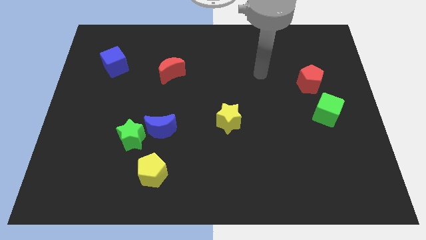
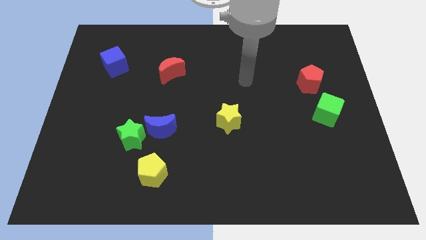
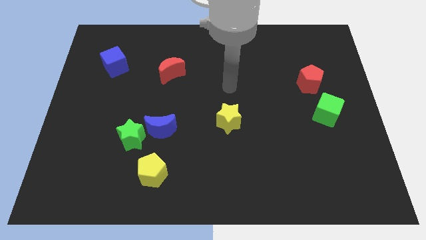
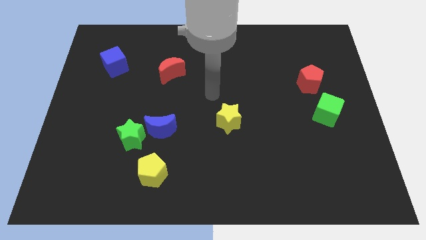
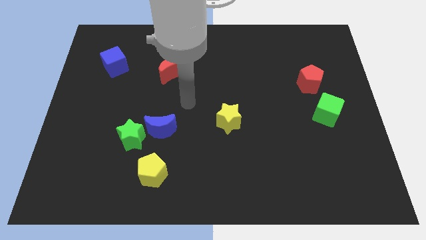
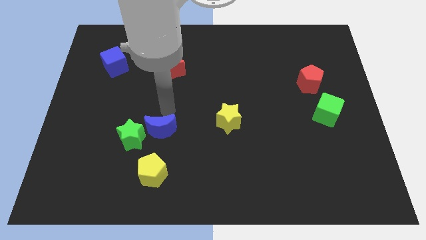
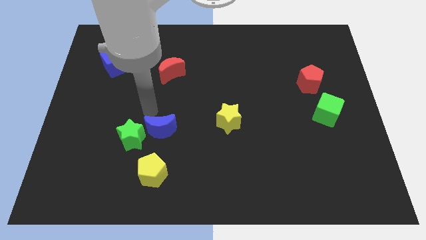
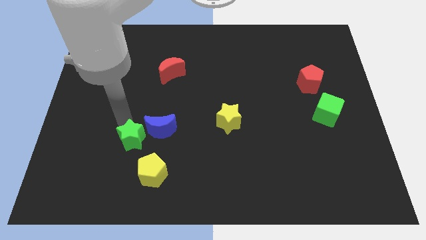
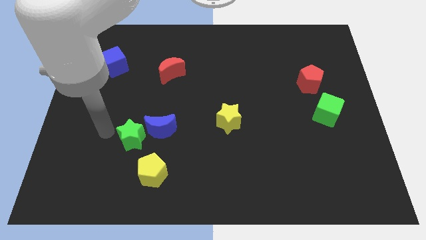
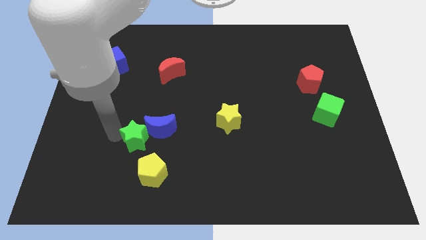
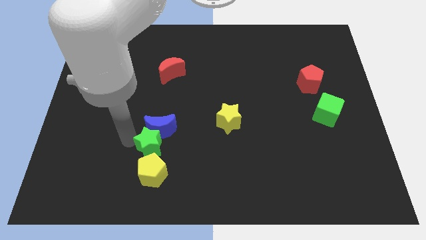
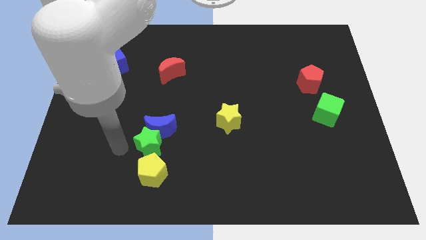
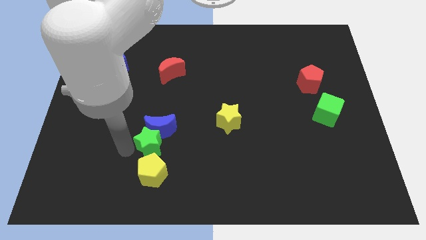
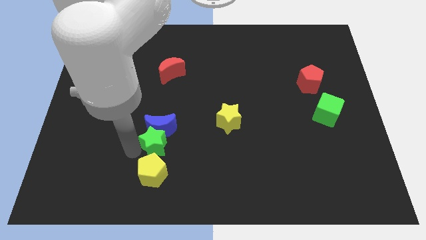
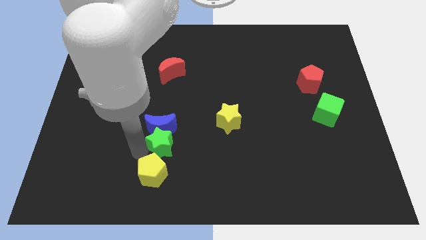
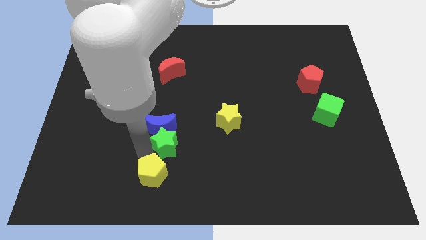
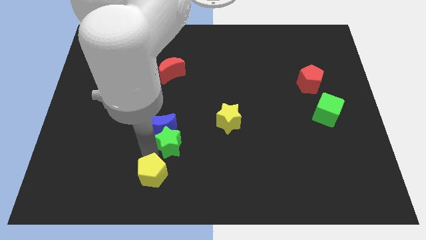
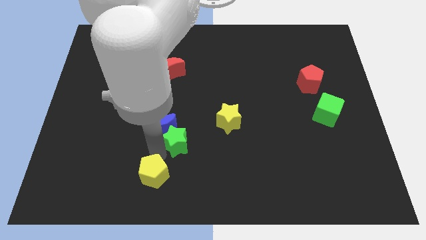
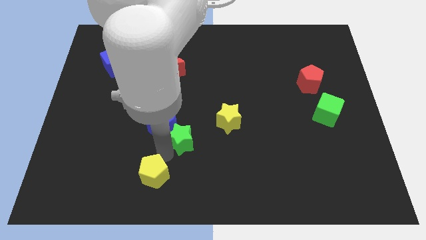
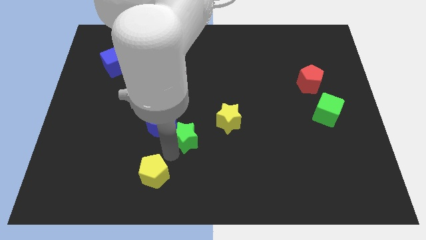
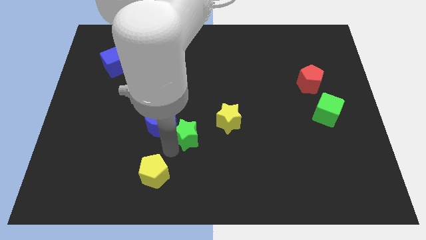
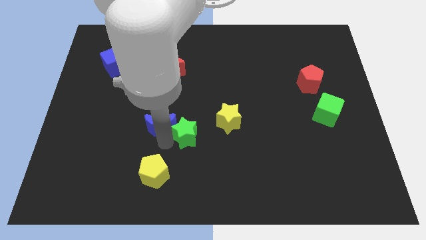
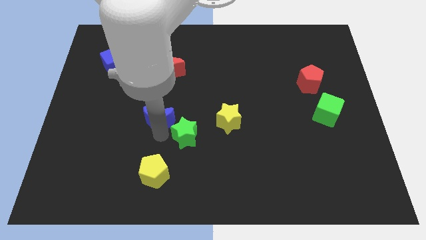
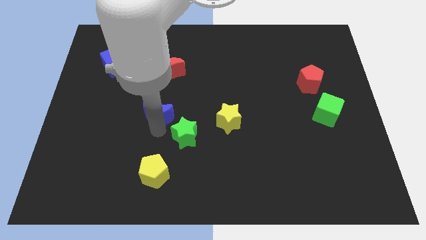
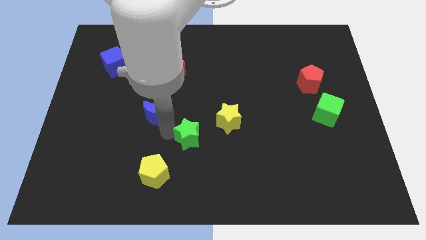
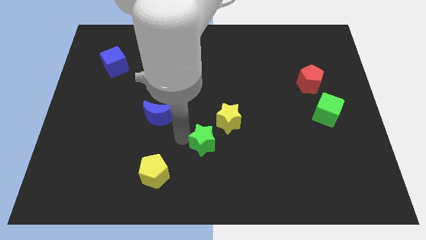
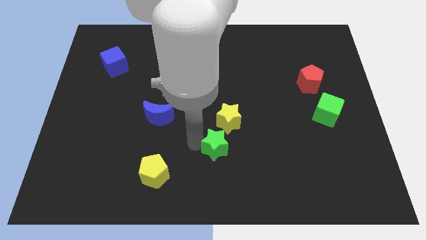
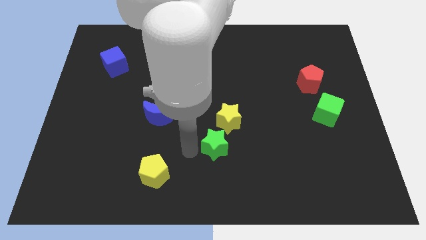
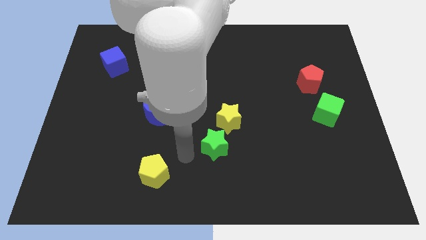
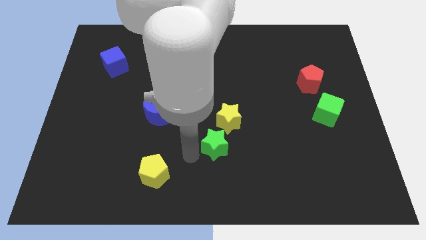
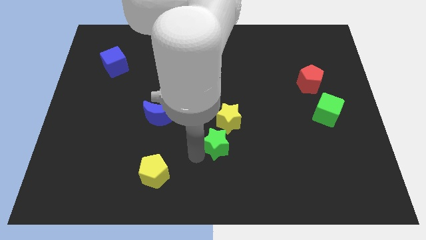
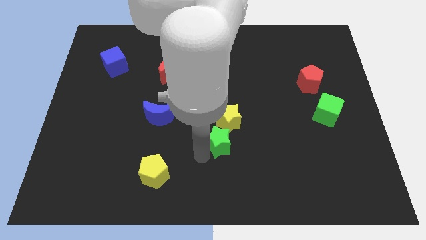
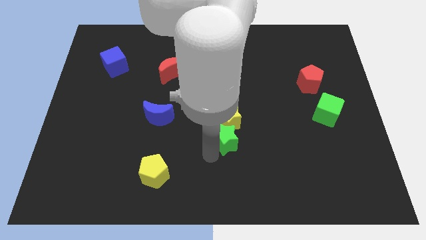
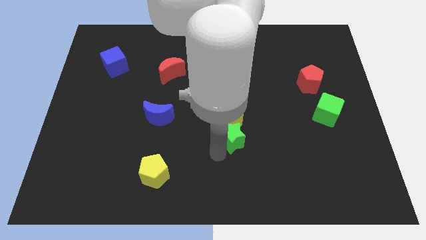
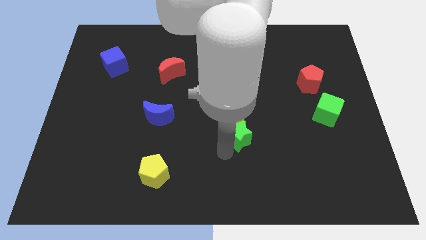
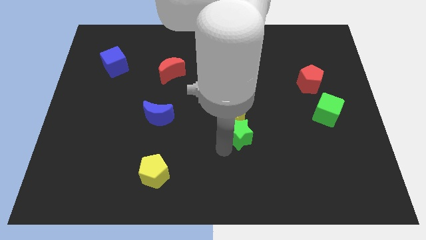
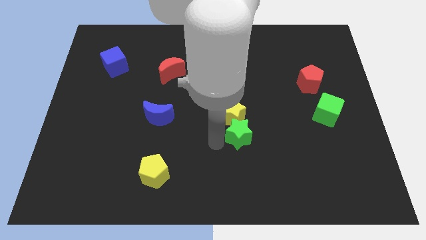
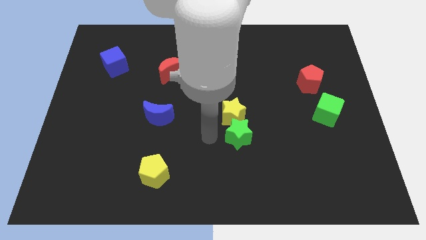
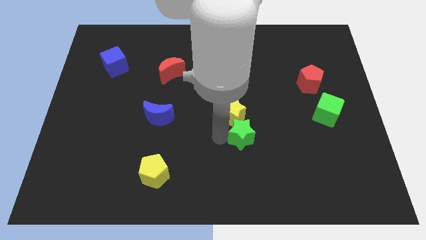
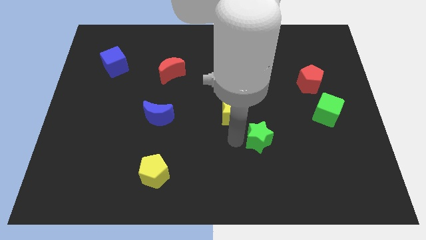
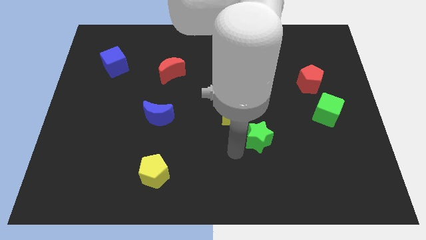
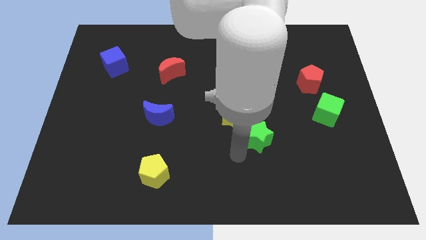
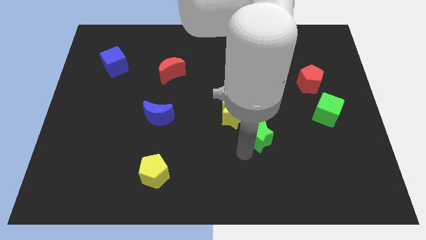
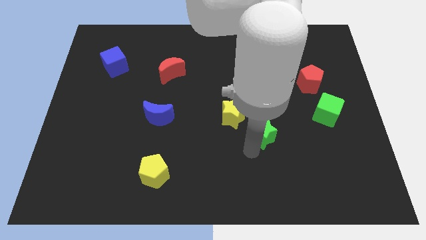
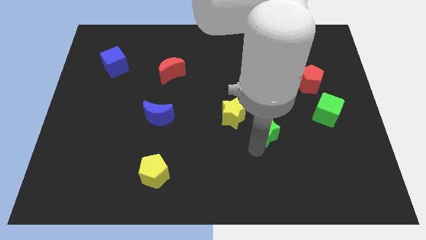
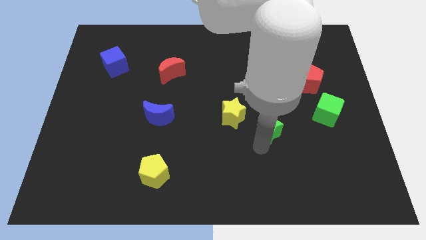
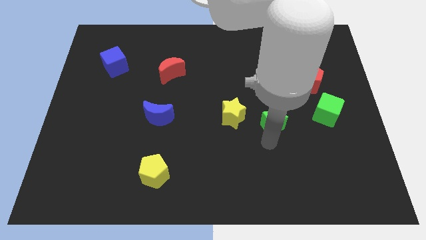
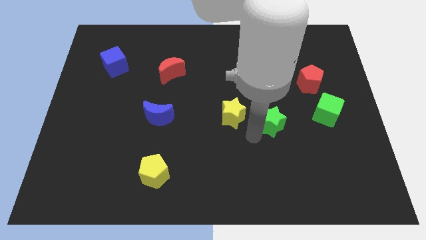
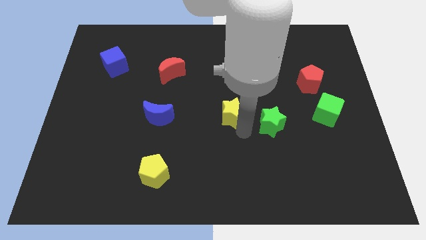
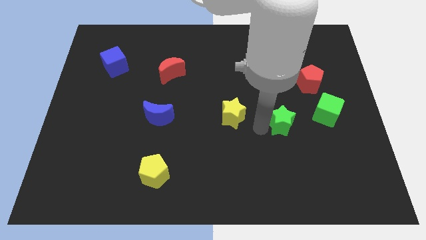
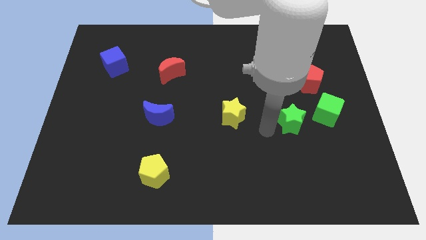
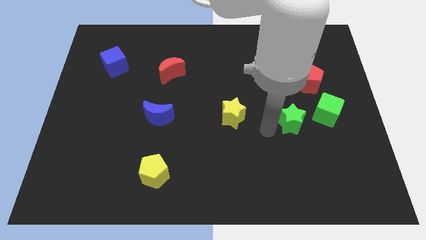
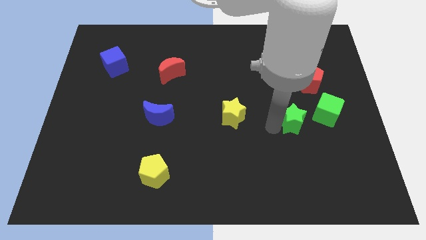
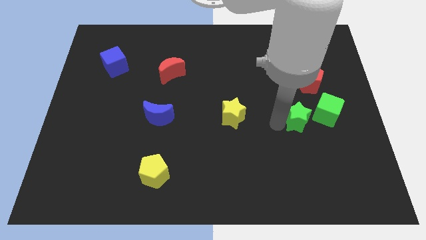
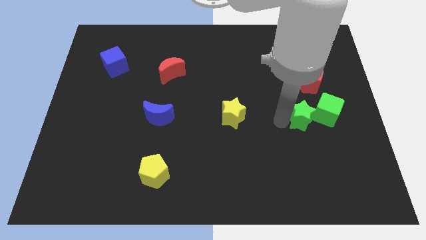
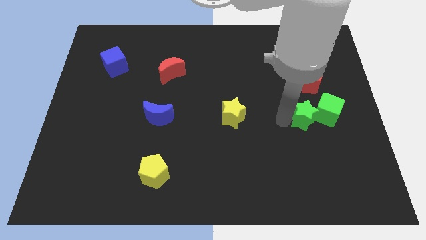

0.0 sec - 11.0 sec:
push the green star close to the green cube

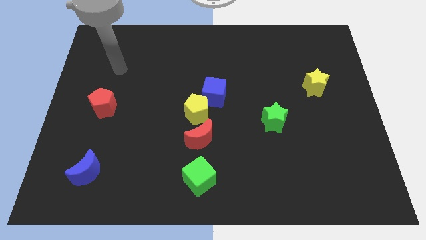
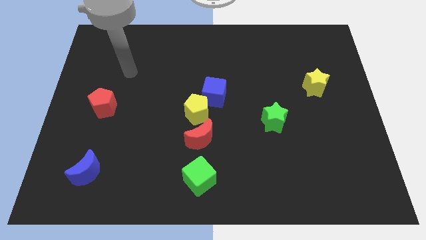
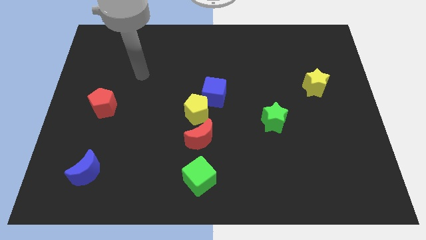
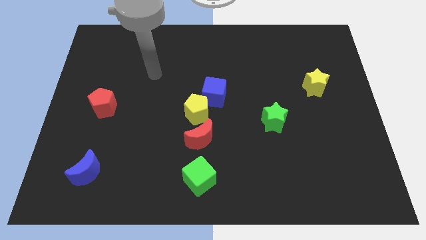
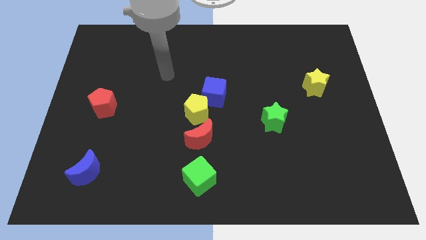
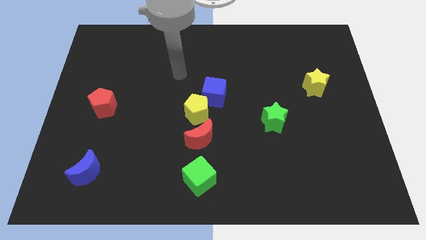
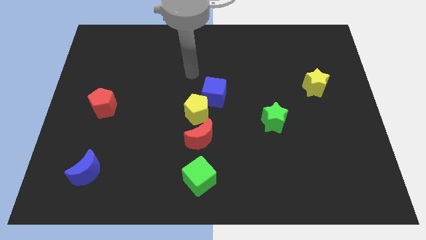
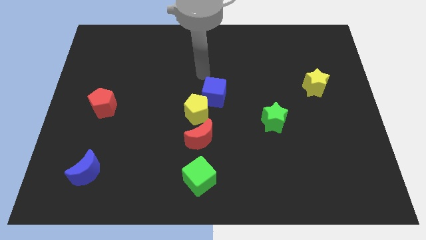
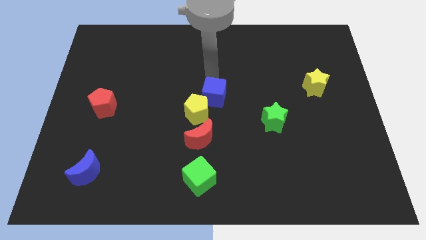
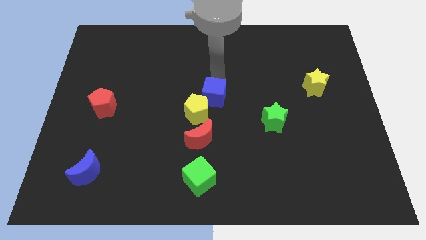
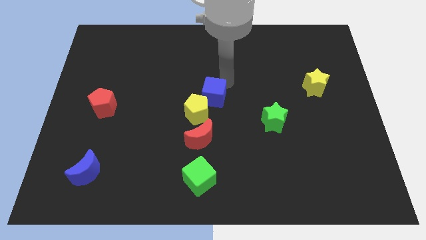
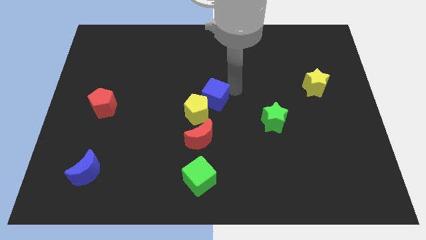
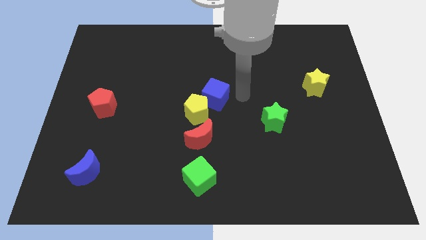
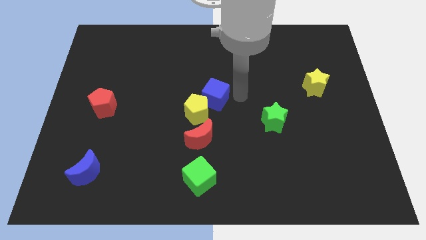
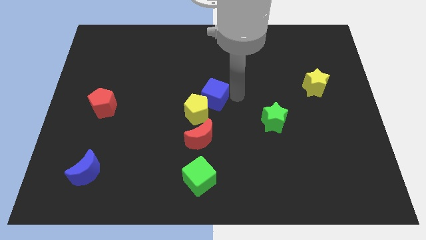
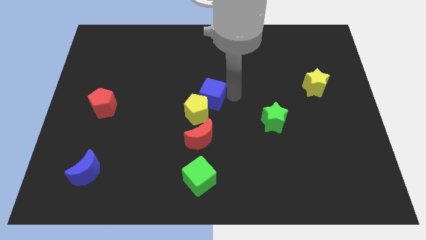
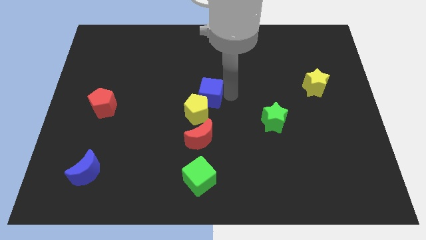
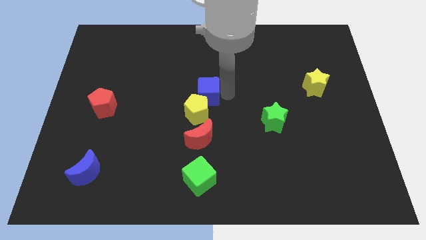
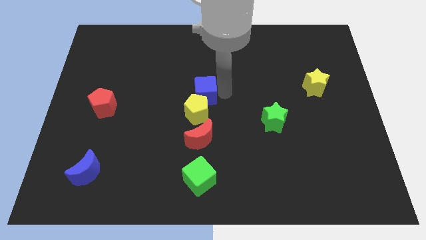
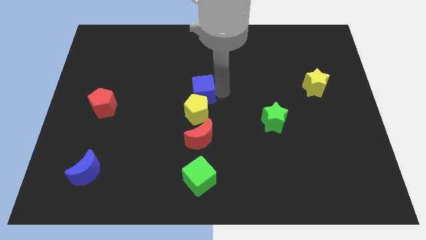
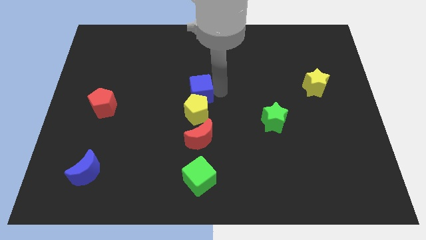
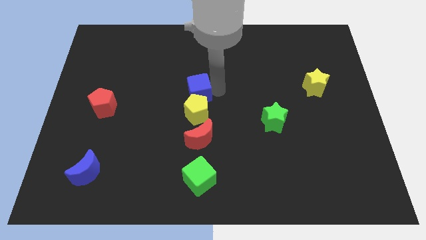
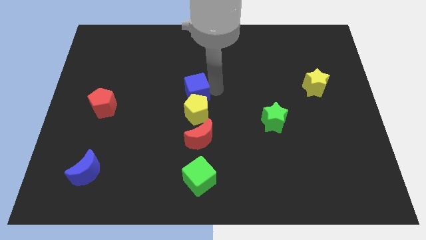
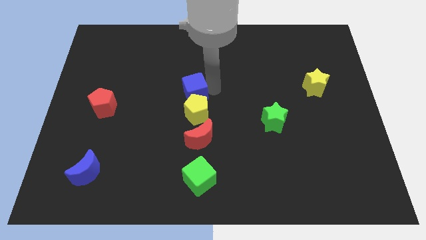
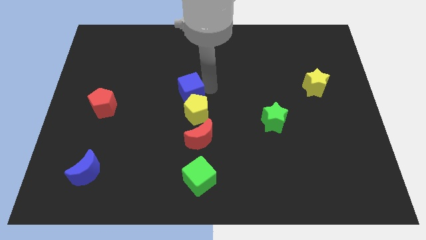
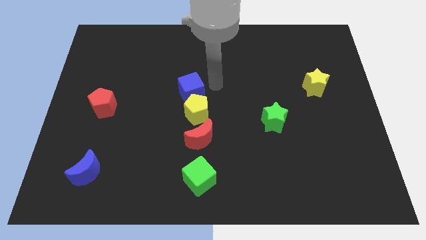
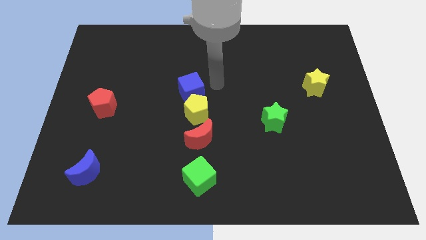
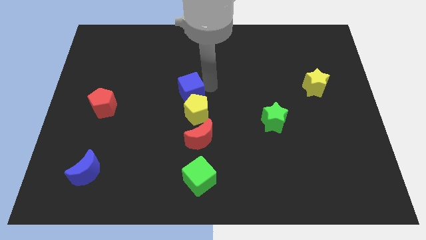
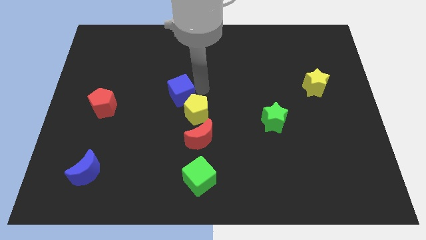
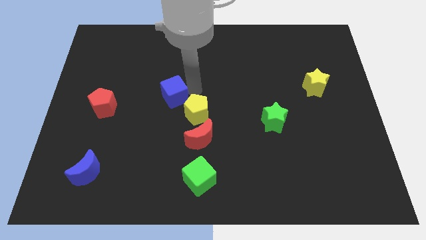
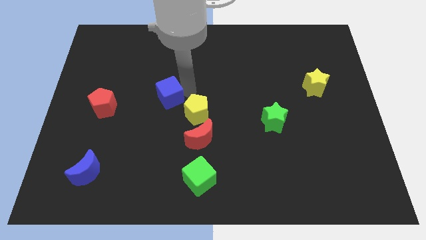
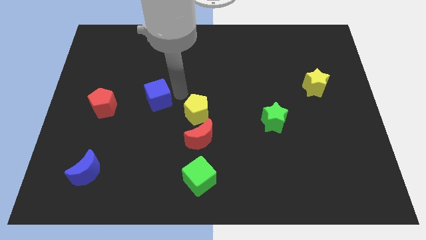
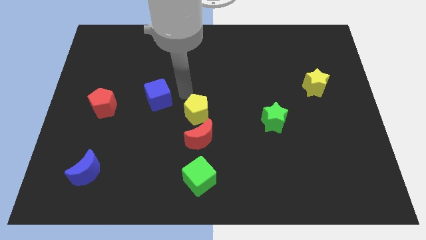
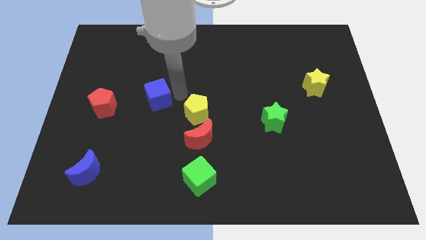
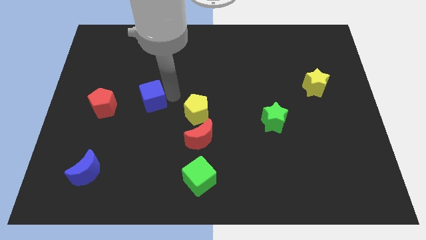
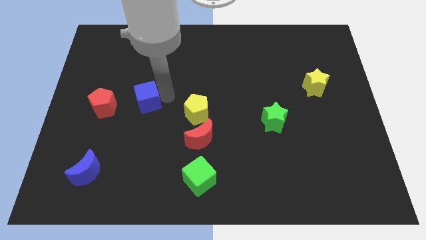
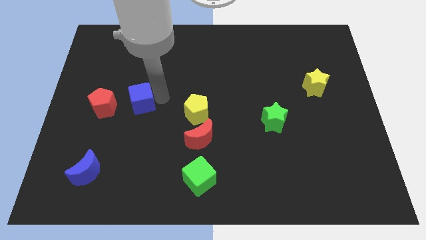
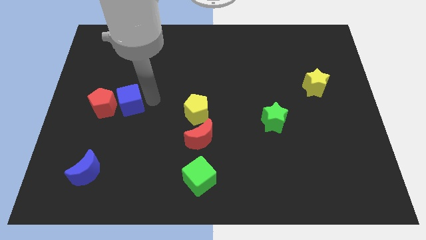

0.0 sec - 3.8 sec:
put the blue cube towards the red pentagon
